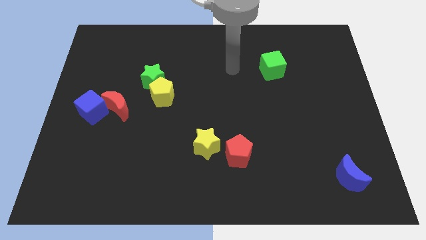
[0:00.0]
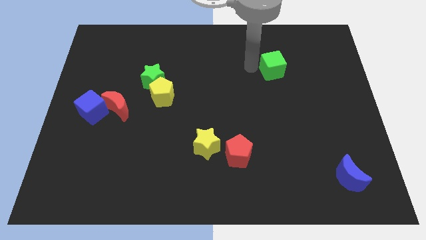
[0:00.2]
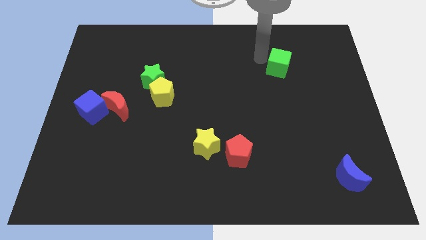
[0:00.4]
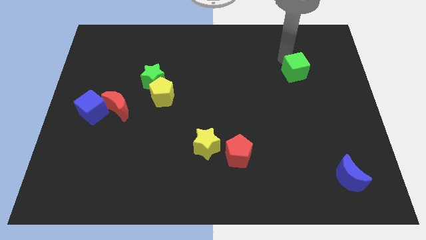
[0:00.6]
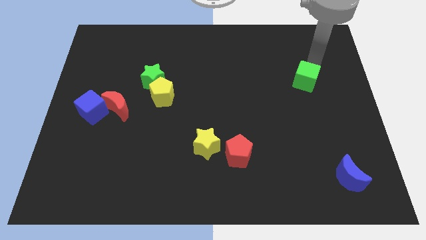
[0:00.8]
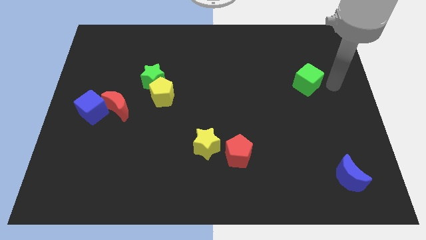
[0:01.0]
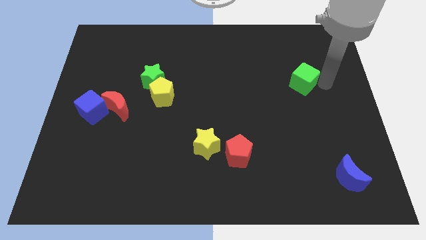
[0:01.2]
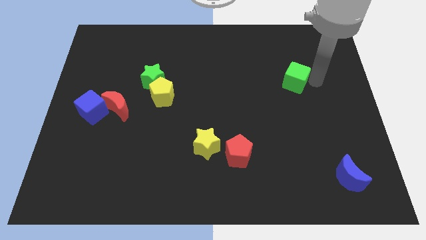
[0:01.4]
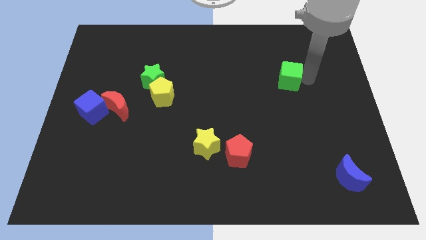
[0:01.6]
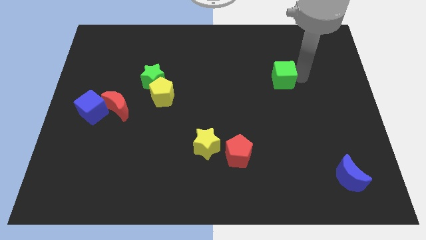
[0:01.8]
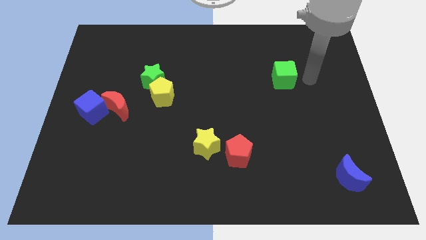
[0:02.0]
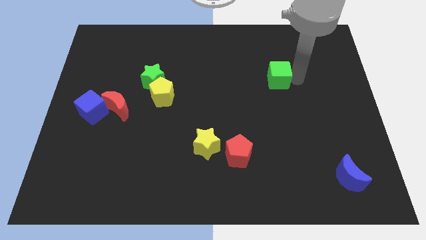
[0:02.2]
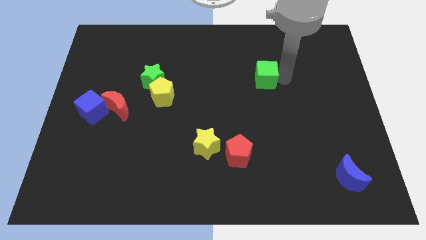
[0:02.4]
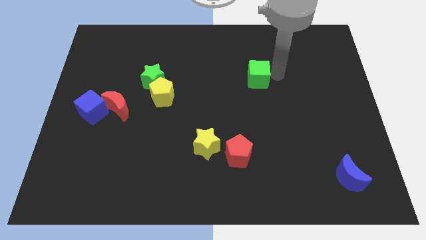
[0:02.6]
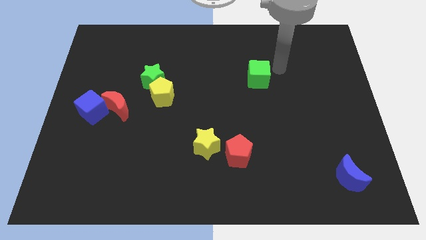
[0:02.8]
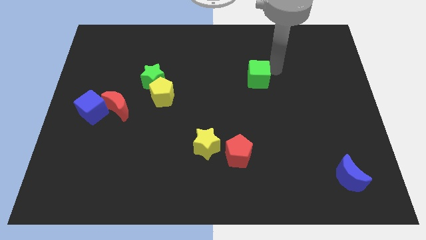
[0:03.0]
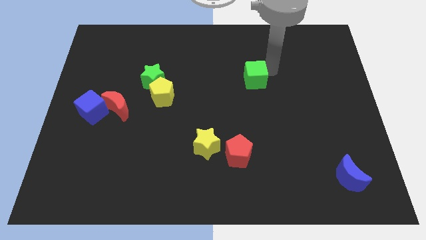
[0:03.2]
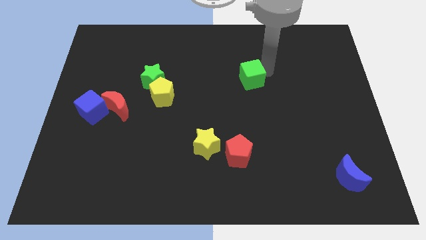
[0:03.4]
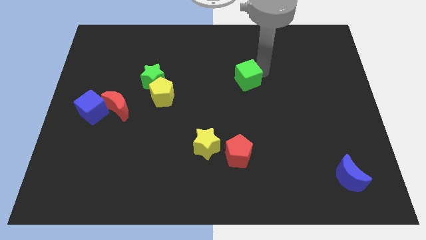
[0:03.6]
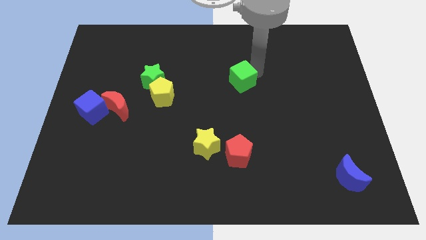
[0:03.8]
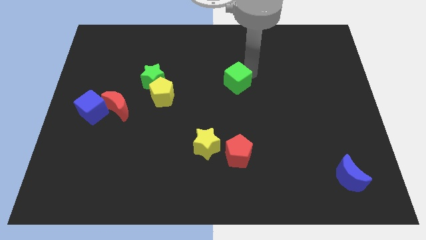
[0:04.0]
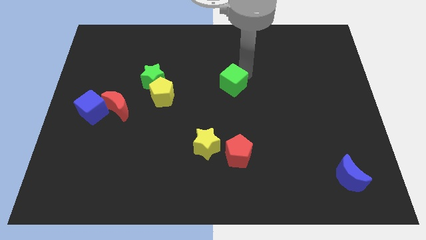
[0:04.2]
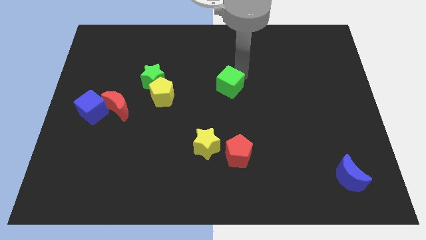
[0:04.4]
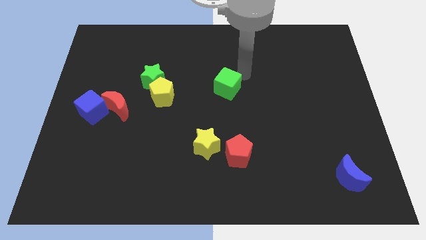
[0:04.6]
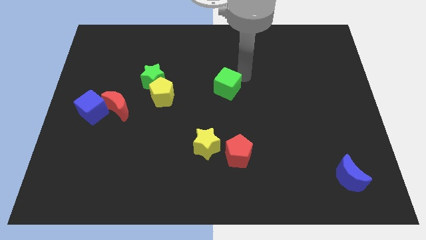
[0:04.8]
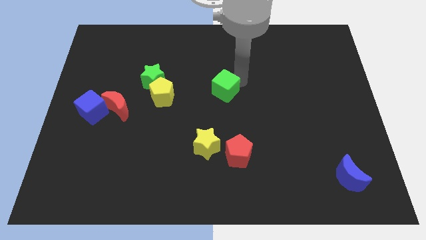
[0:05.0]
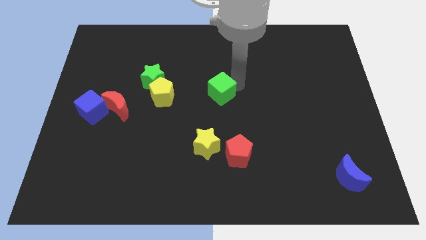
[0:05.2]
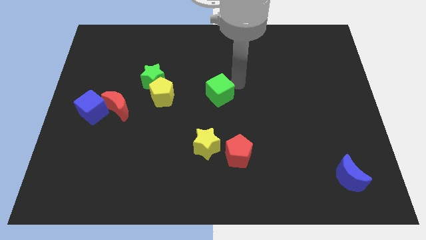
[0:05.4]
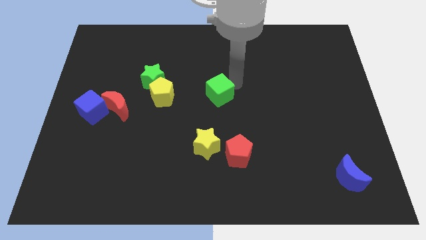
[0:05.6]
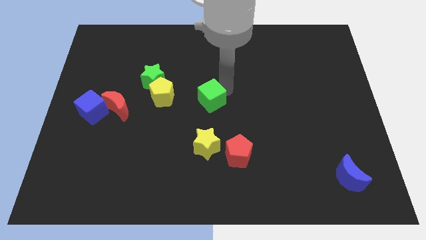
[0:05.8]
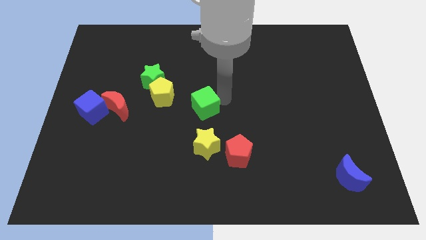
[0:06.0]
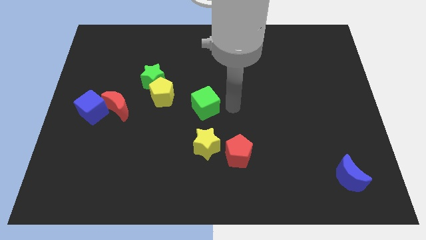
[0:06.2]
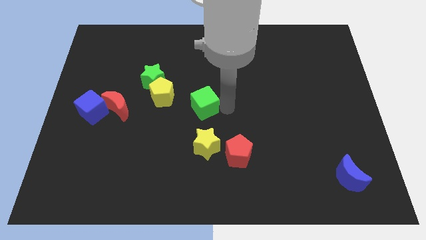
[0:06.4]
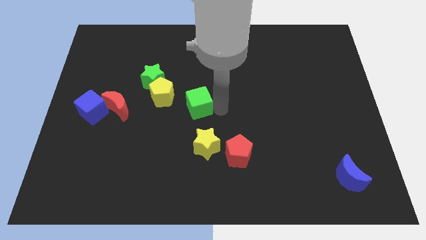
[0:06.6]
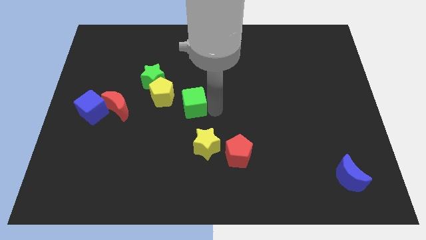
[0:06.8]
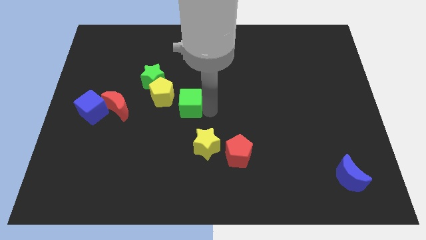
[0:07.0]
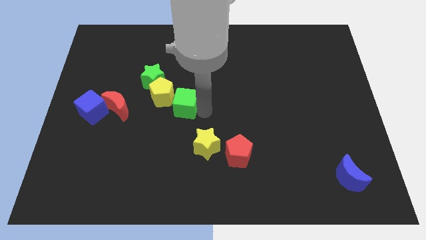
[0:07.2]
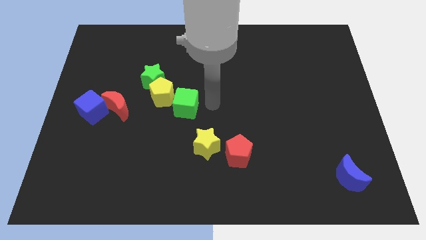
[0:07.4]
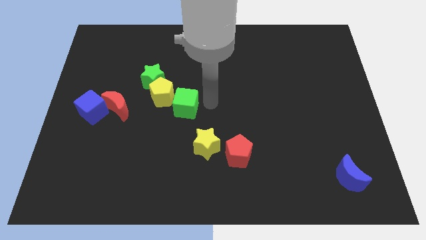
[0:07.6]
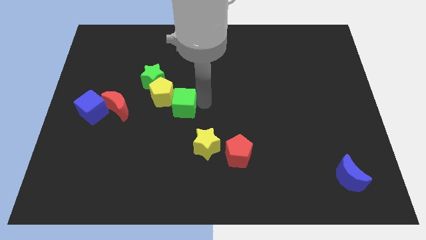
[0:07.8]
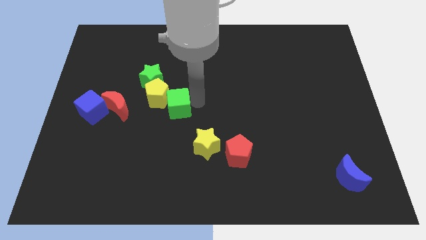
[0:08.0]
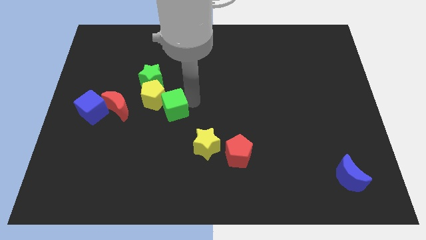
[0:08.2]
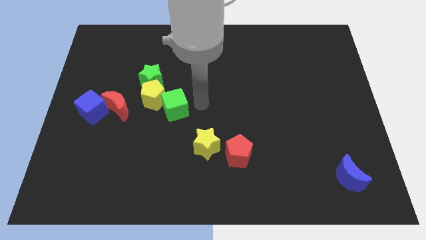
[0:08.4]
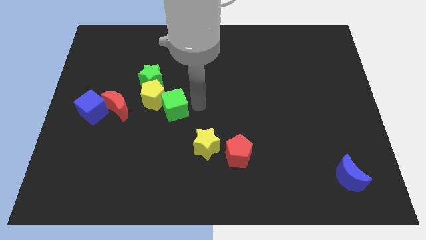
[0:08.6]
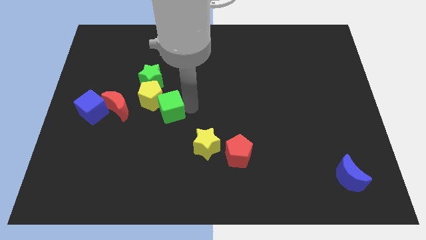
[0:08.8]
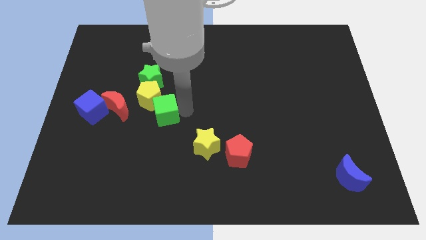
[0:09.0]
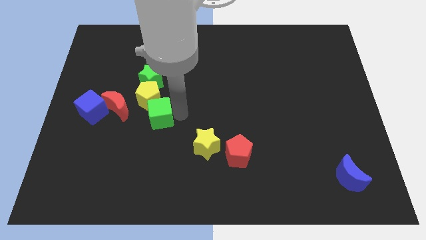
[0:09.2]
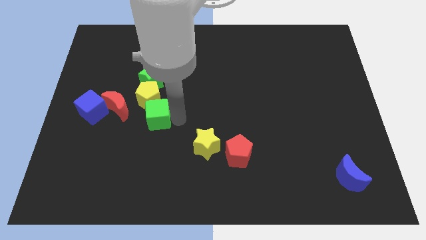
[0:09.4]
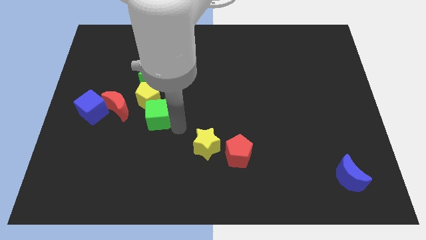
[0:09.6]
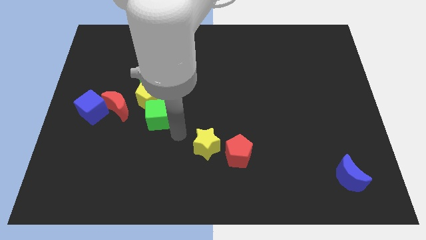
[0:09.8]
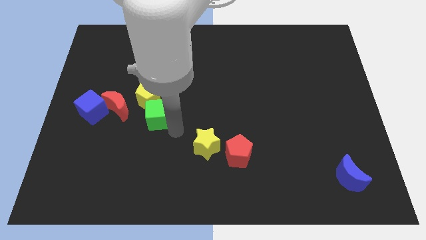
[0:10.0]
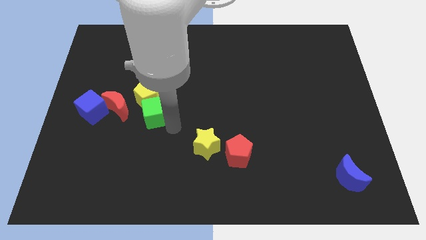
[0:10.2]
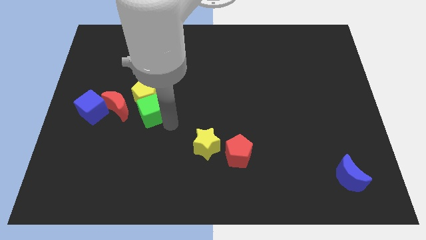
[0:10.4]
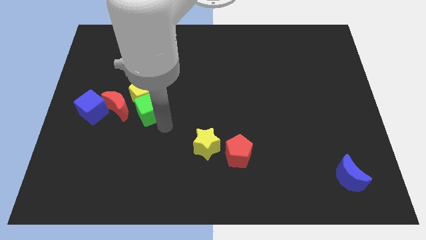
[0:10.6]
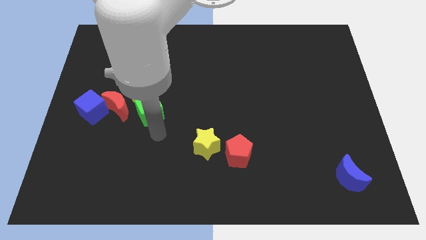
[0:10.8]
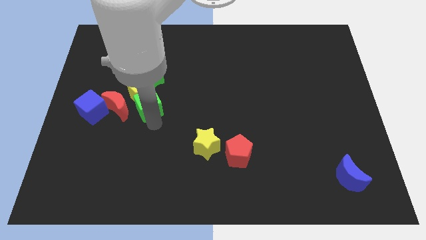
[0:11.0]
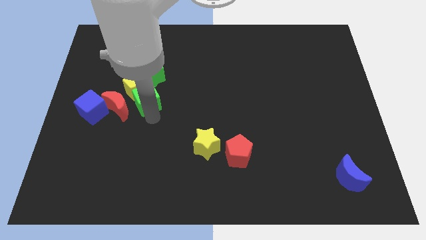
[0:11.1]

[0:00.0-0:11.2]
slide the green cube to the top right side of the red moon

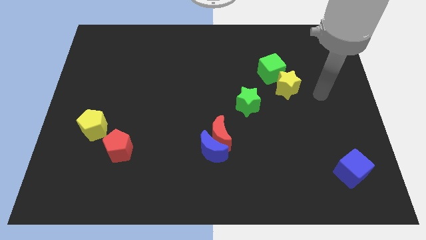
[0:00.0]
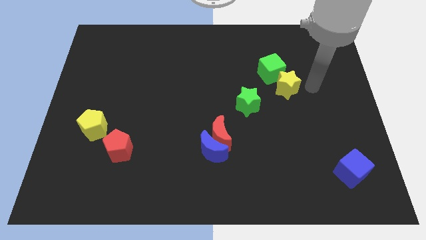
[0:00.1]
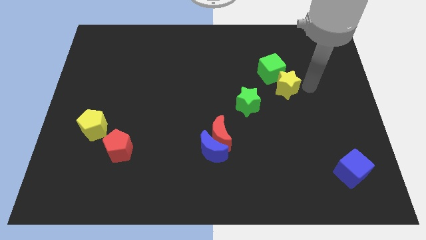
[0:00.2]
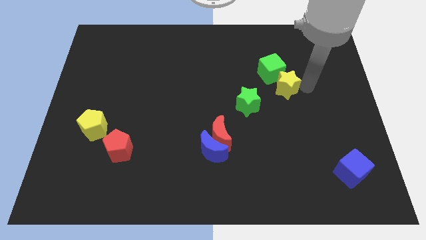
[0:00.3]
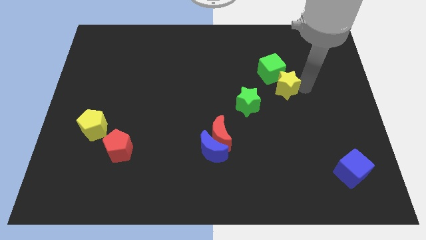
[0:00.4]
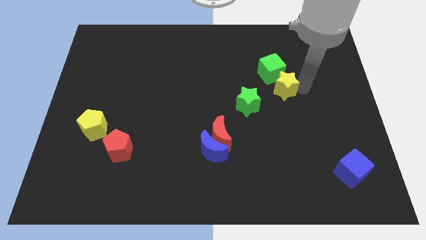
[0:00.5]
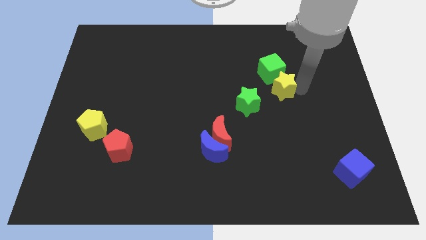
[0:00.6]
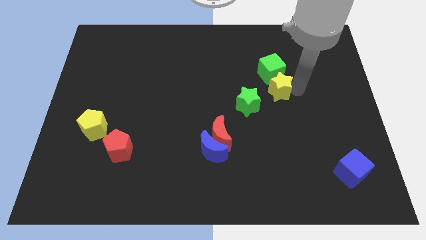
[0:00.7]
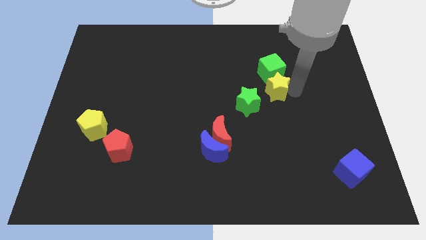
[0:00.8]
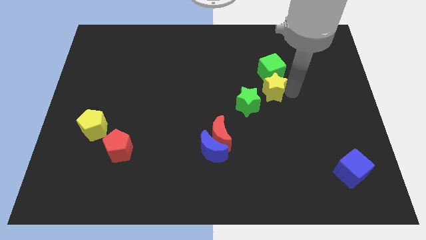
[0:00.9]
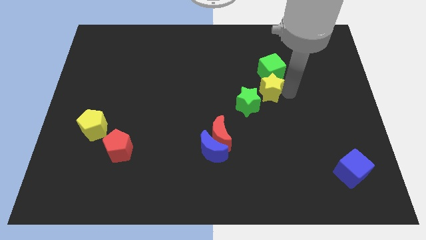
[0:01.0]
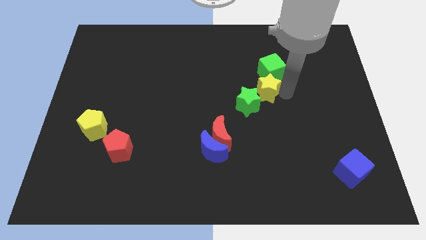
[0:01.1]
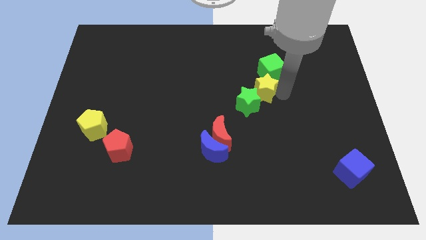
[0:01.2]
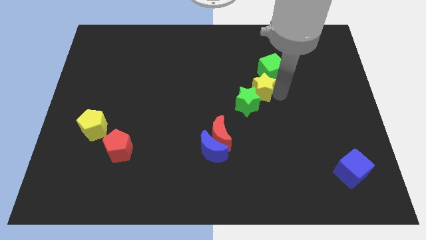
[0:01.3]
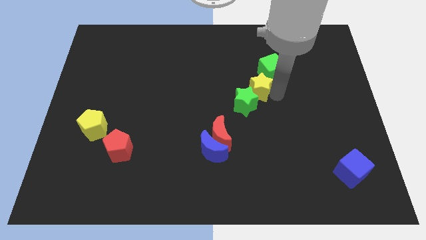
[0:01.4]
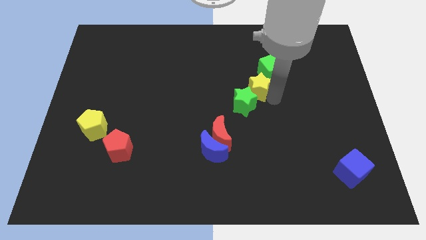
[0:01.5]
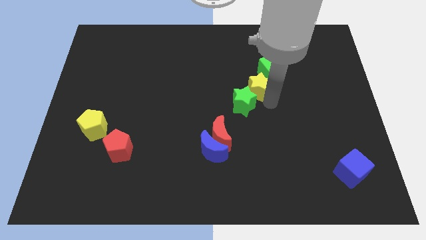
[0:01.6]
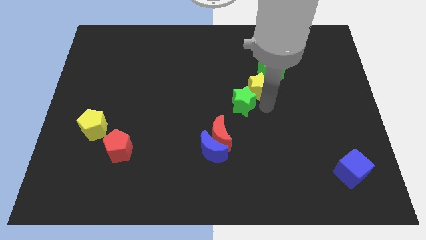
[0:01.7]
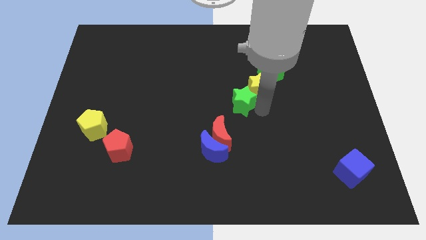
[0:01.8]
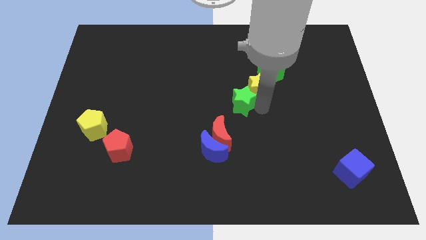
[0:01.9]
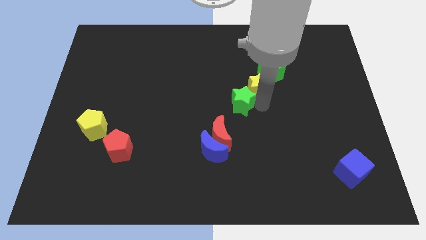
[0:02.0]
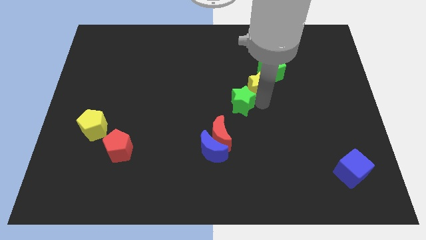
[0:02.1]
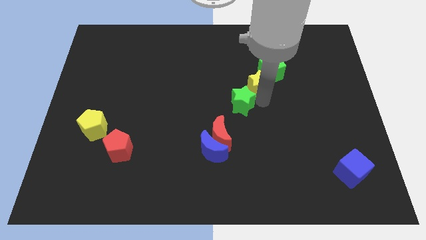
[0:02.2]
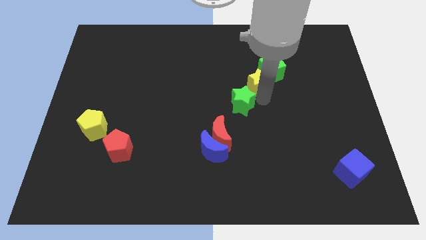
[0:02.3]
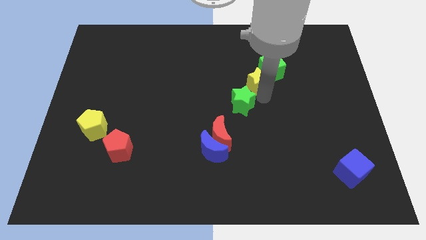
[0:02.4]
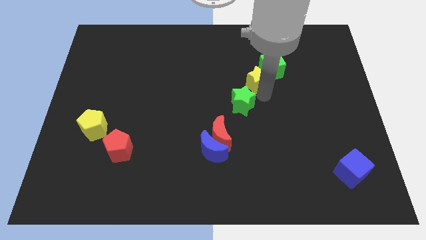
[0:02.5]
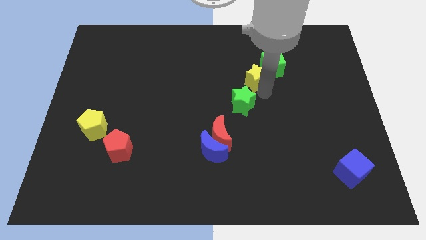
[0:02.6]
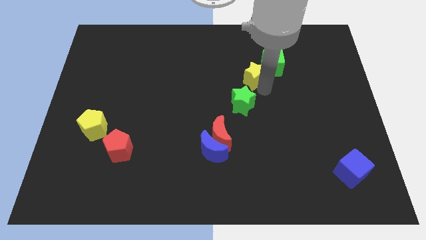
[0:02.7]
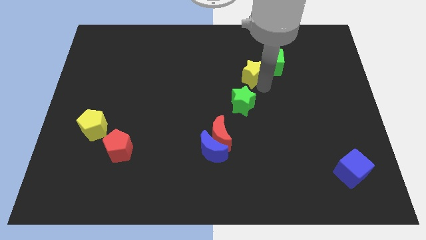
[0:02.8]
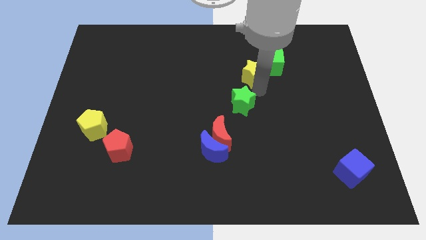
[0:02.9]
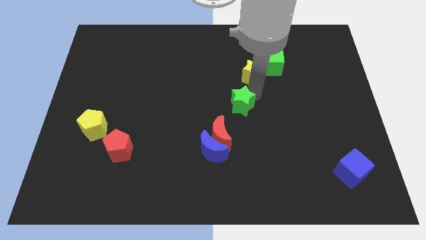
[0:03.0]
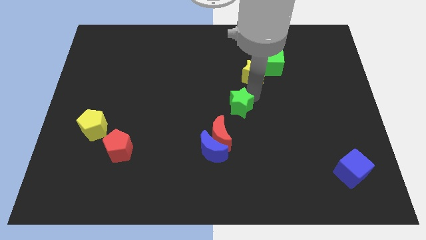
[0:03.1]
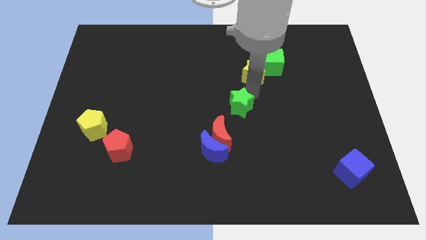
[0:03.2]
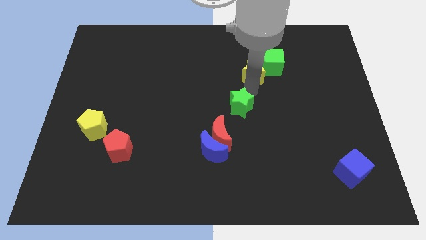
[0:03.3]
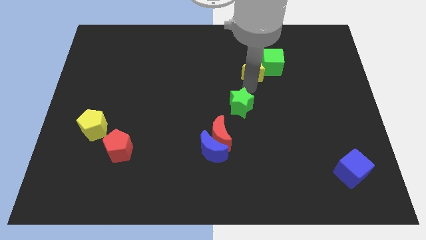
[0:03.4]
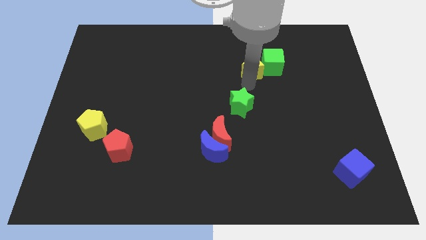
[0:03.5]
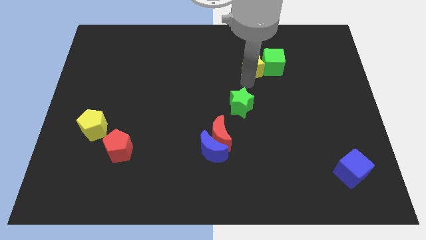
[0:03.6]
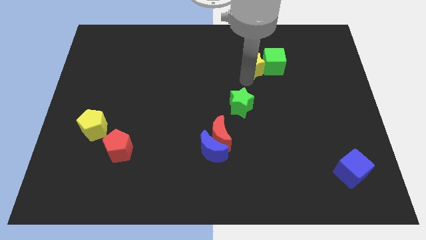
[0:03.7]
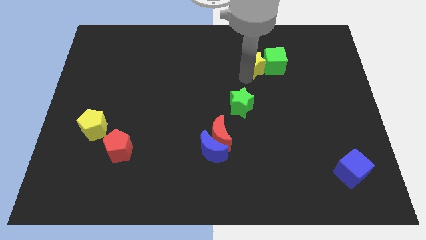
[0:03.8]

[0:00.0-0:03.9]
push the yellow star to the top left side of the green cube
